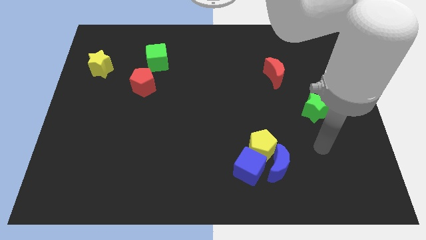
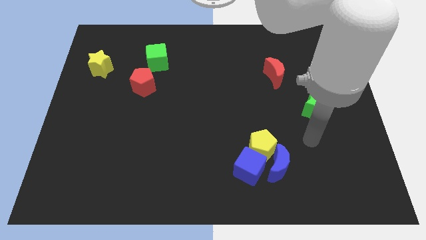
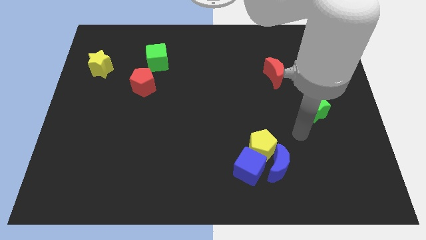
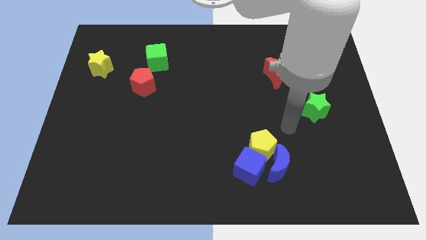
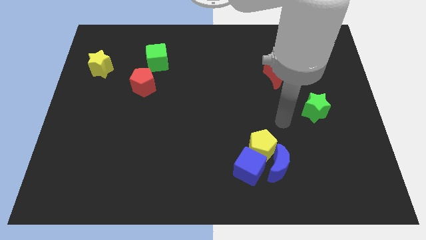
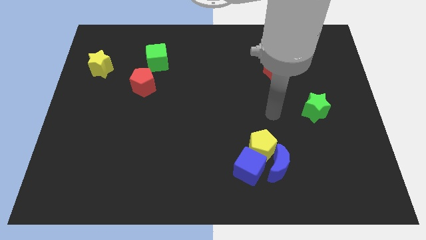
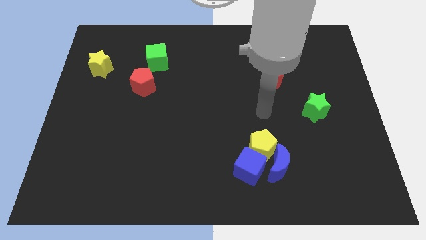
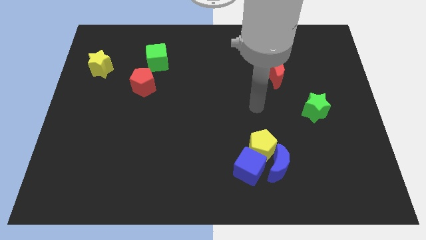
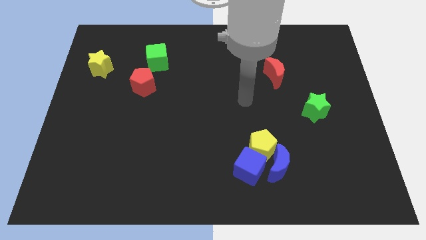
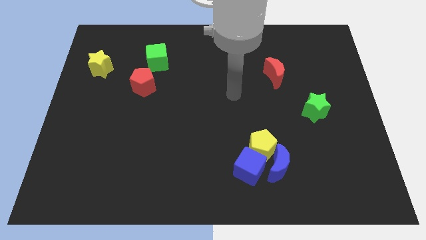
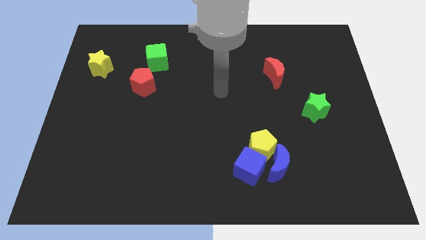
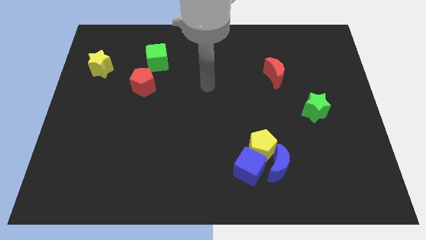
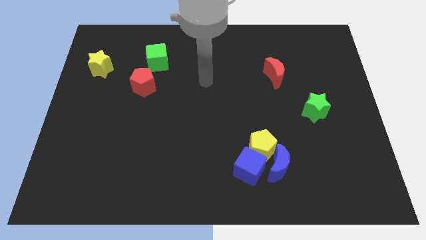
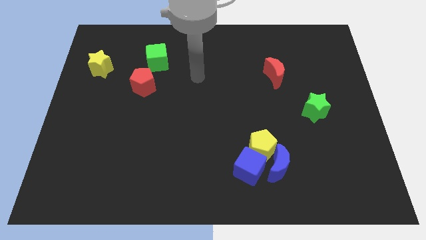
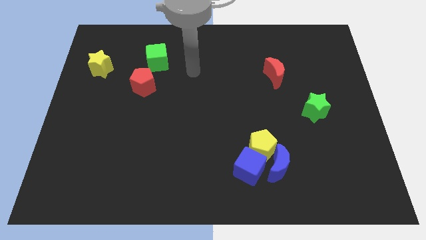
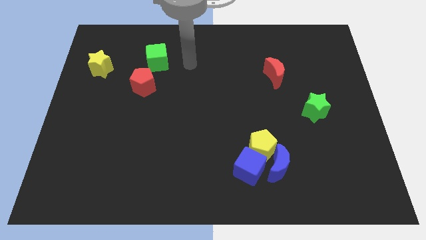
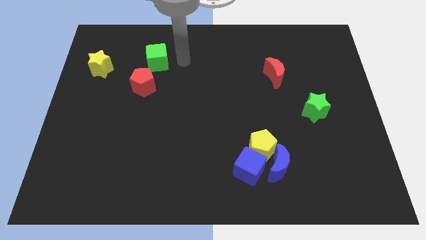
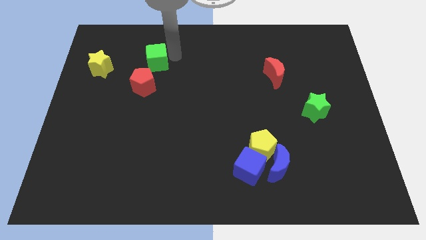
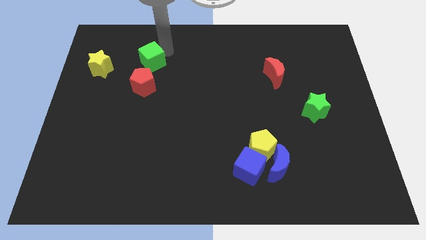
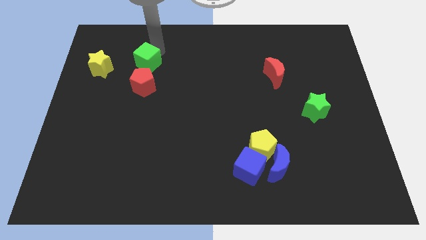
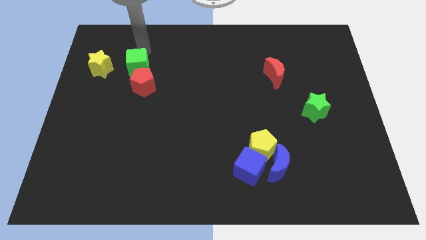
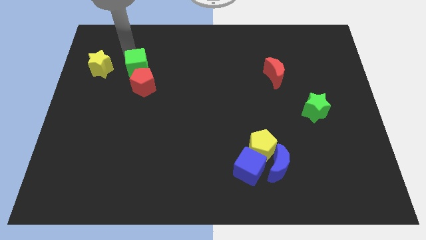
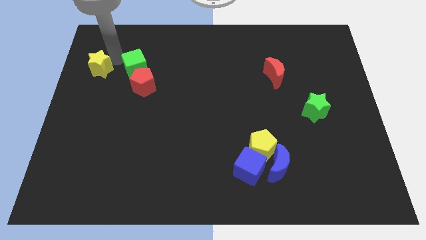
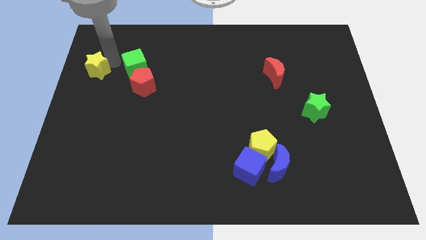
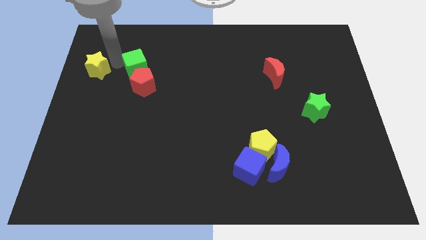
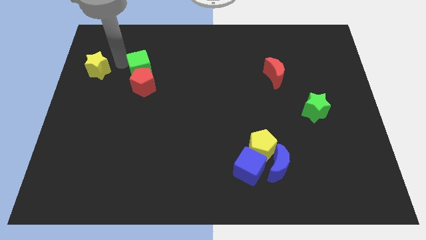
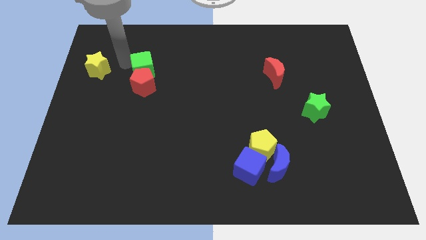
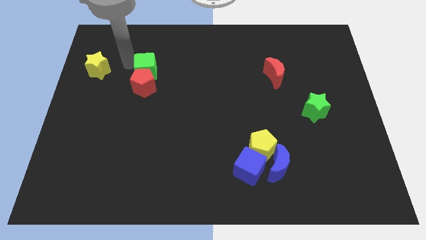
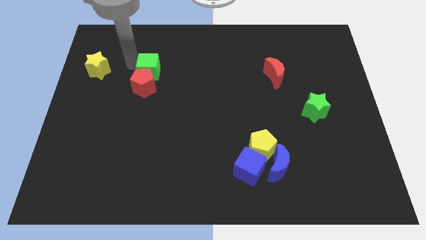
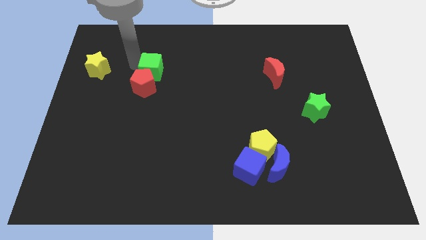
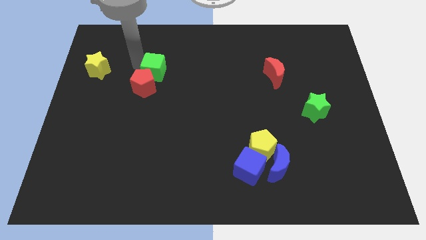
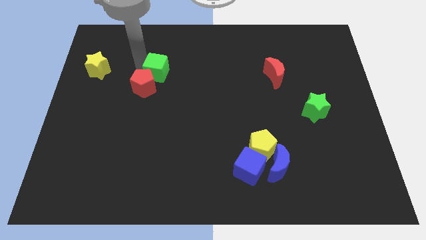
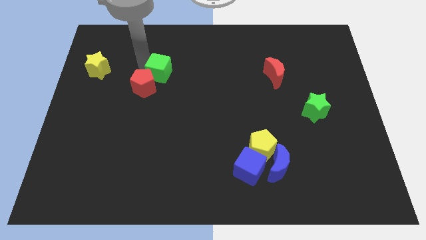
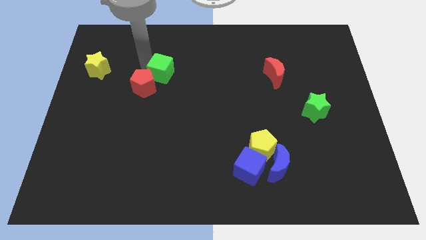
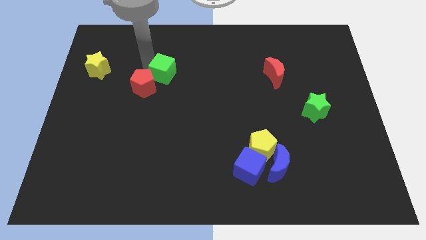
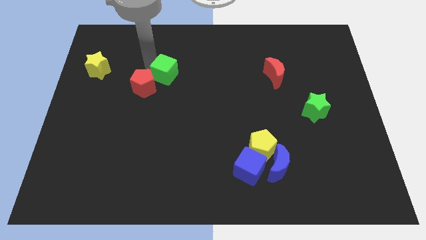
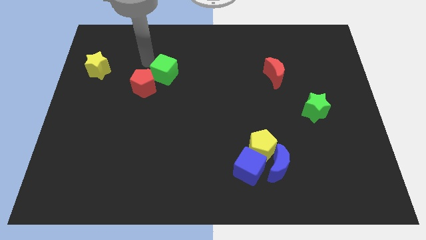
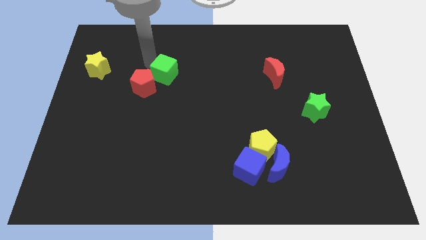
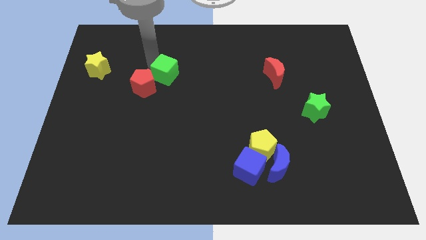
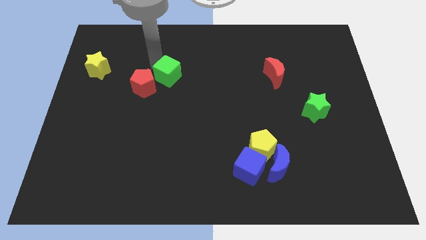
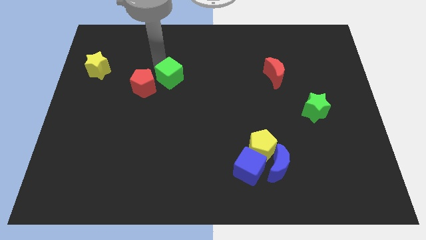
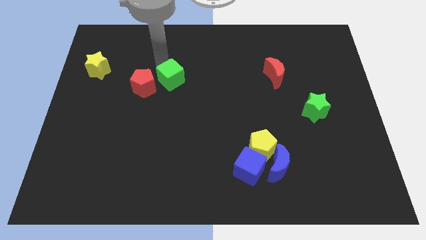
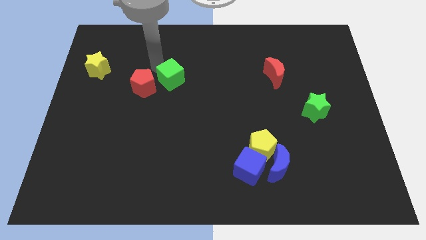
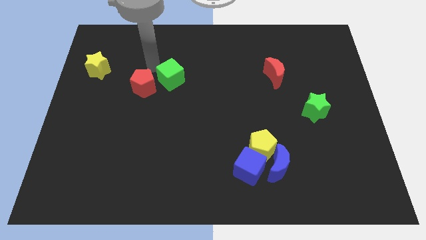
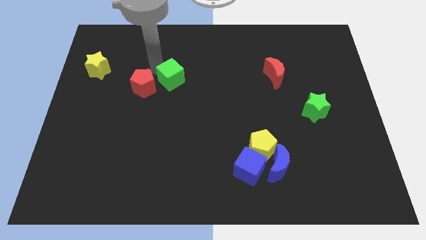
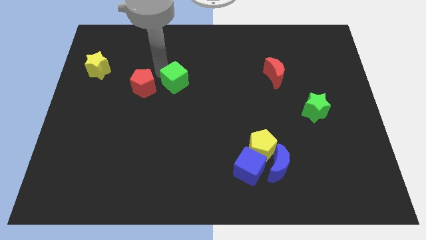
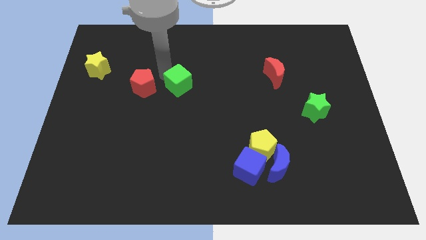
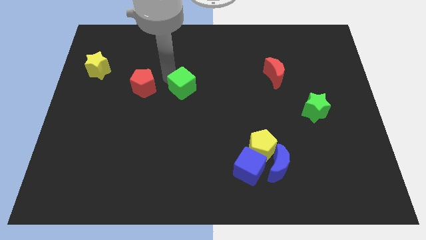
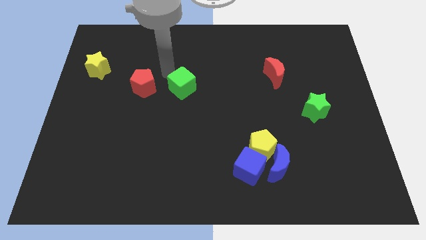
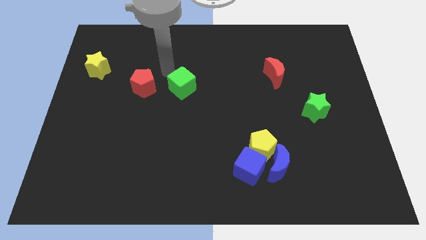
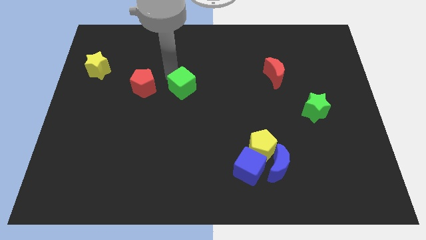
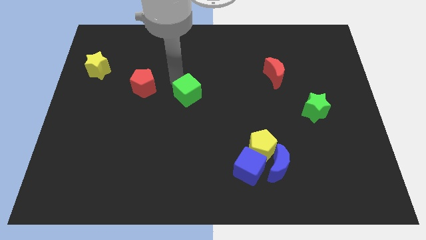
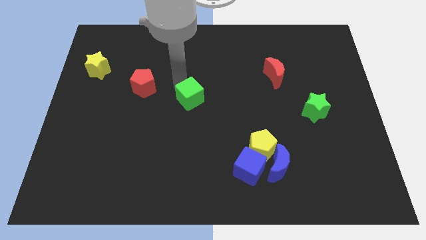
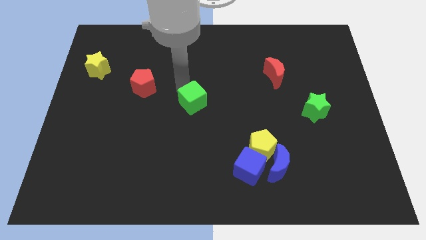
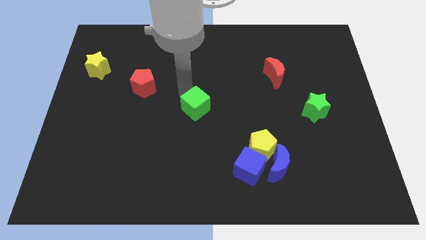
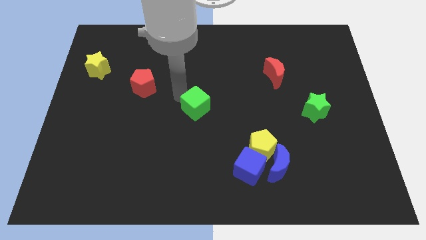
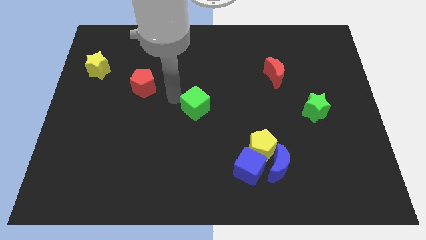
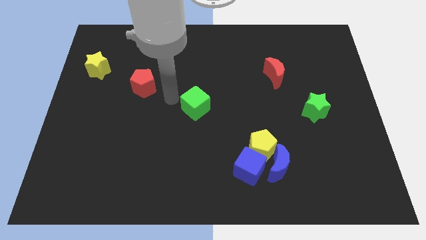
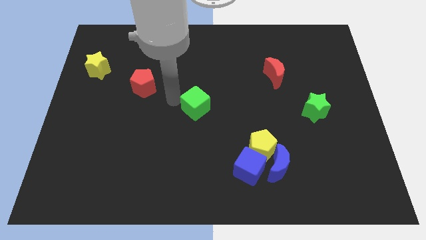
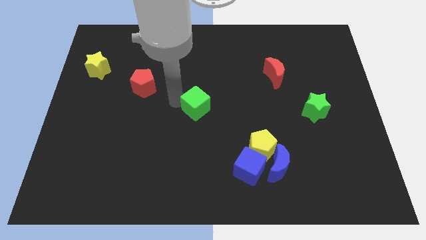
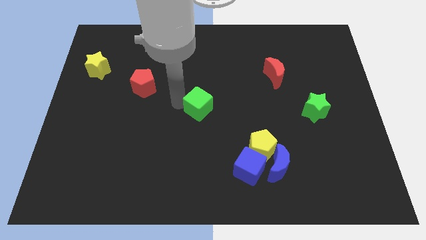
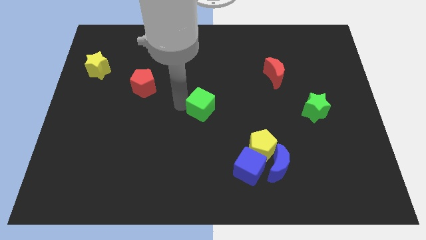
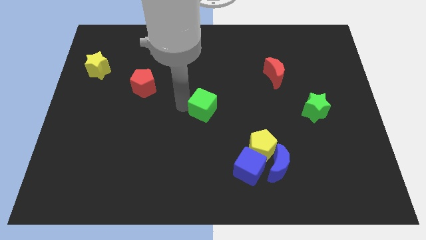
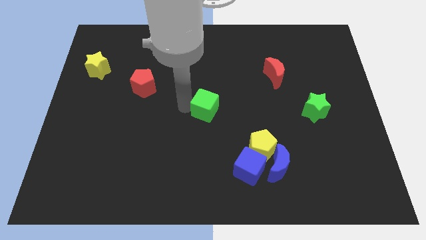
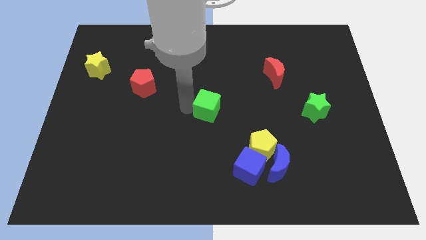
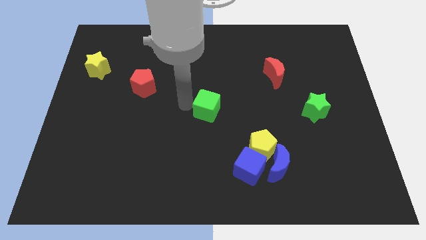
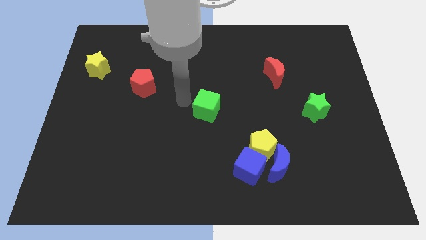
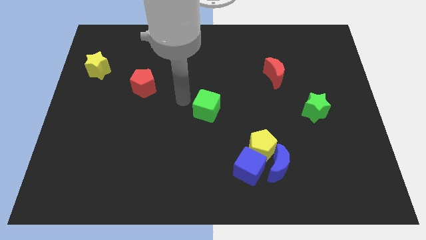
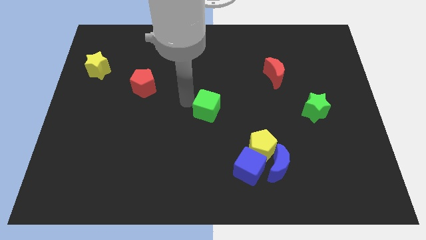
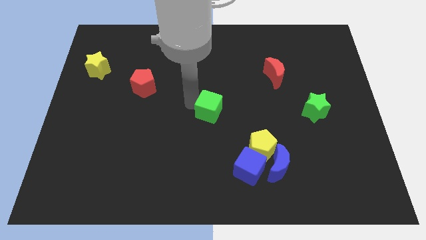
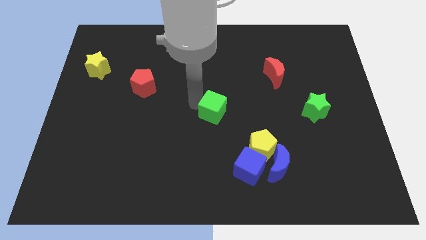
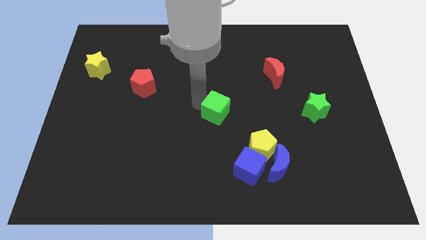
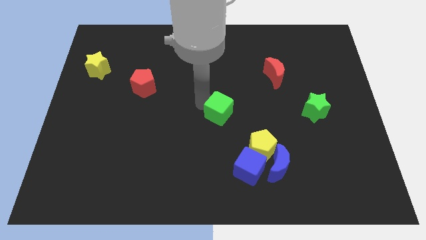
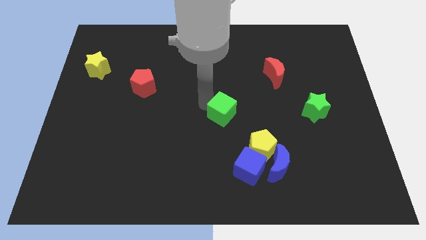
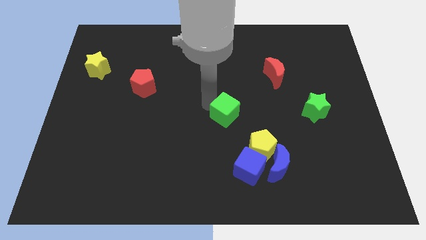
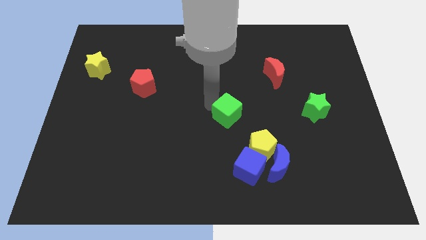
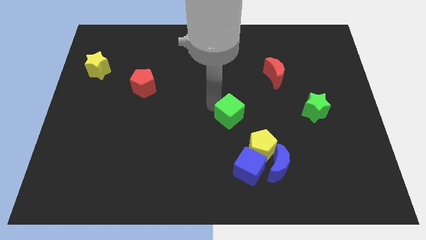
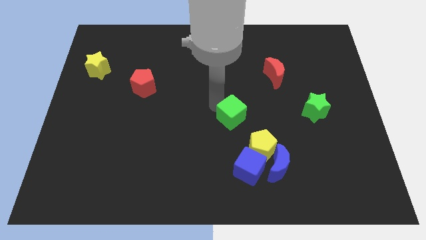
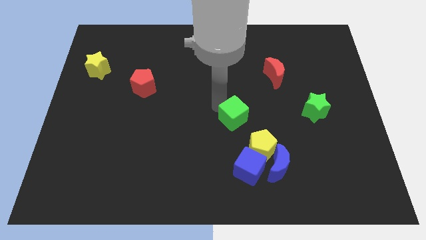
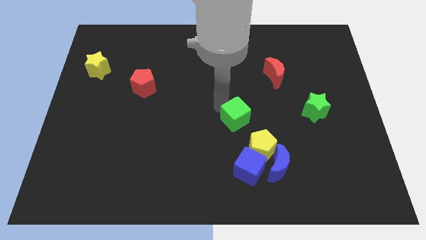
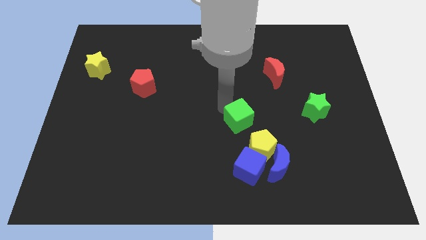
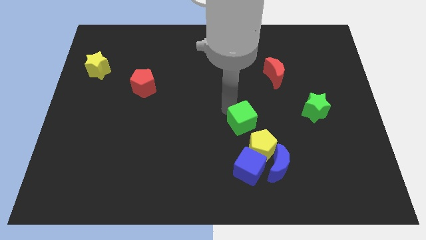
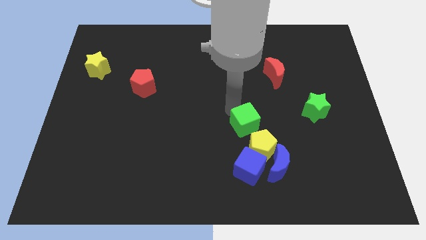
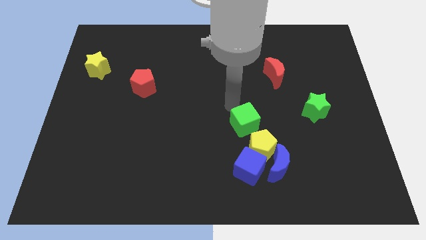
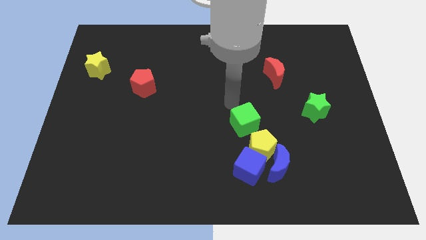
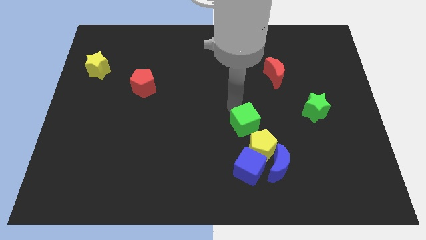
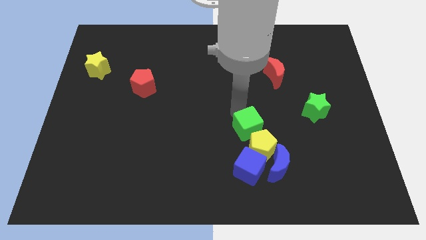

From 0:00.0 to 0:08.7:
slide the green cube towards the yellow pentagon
